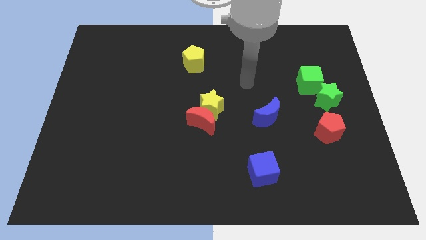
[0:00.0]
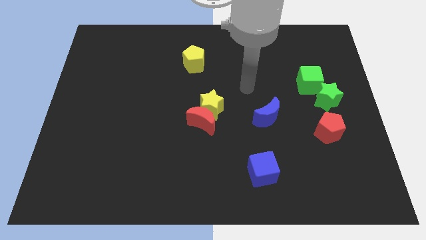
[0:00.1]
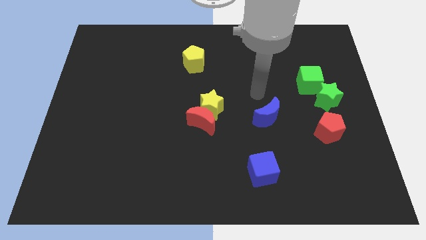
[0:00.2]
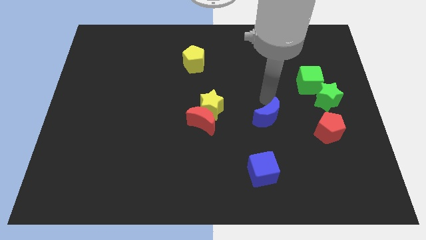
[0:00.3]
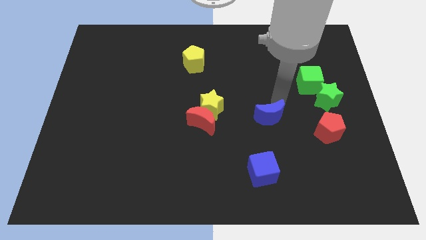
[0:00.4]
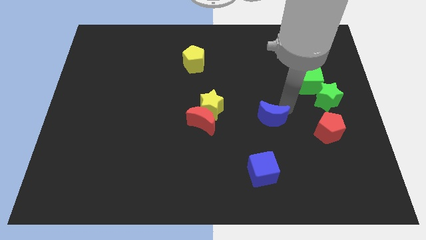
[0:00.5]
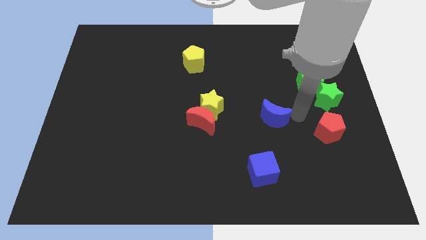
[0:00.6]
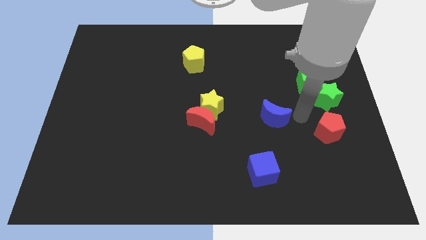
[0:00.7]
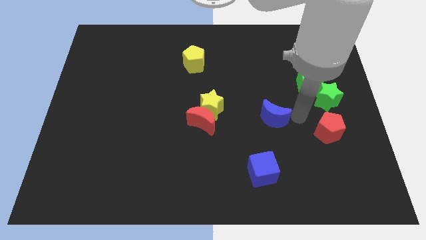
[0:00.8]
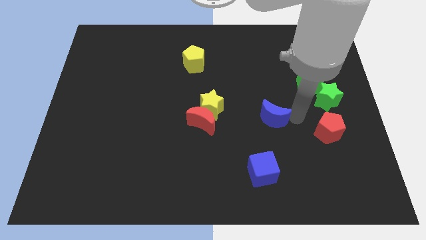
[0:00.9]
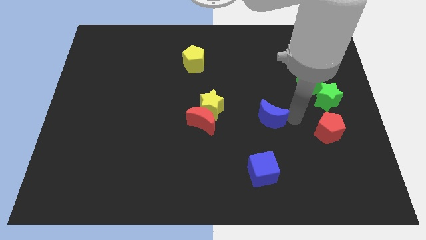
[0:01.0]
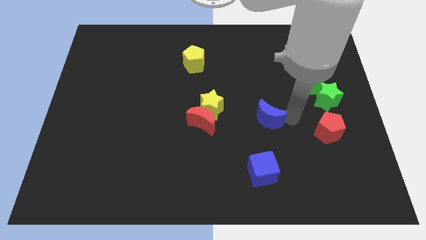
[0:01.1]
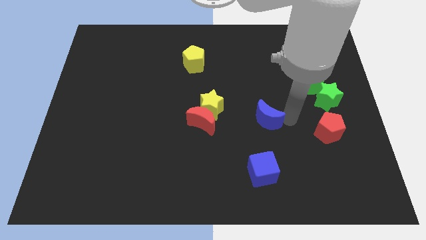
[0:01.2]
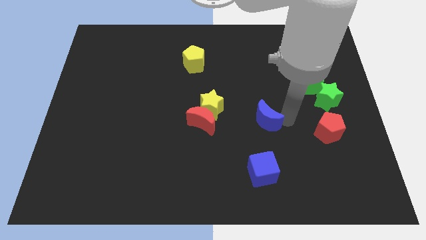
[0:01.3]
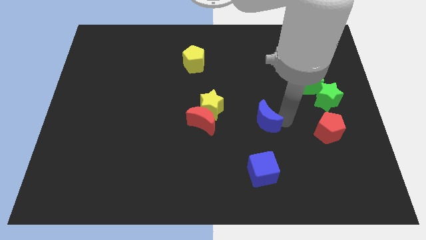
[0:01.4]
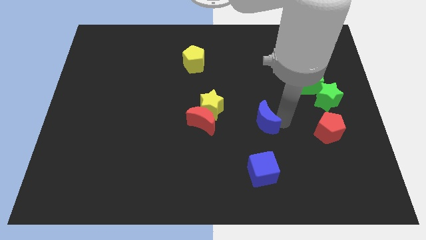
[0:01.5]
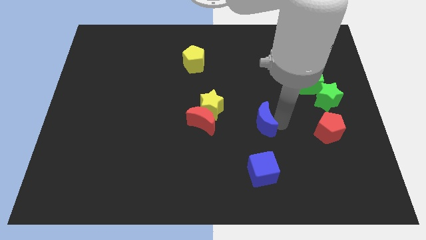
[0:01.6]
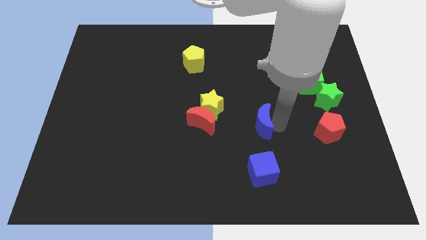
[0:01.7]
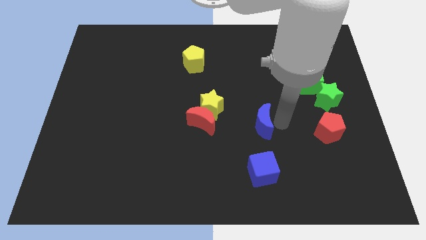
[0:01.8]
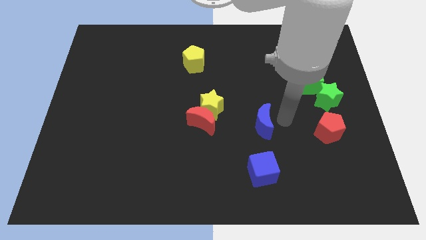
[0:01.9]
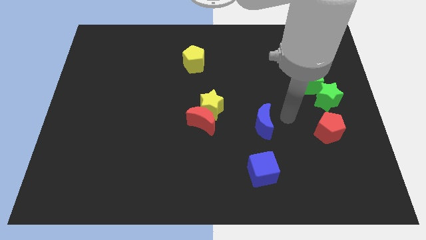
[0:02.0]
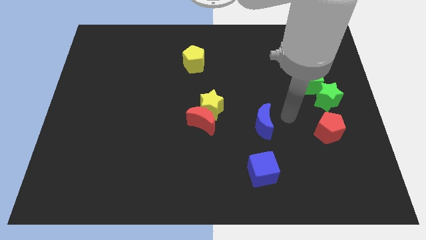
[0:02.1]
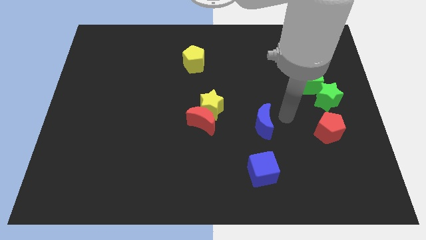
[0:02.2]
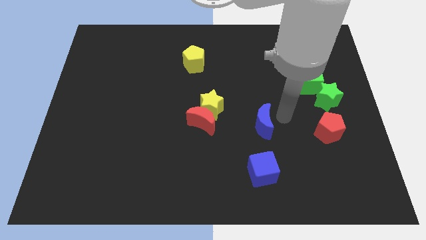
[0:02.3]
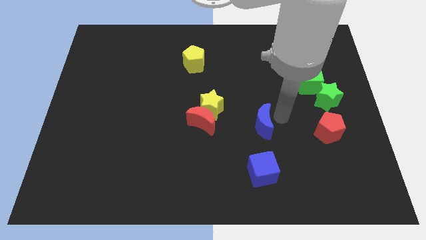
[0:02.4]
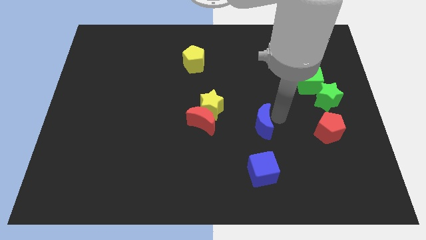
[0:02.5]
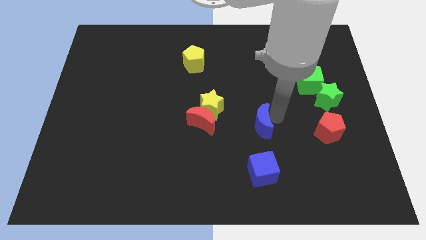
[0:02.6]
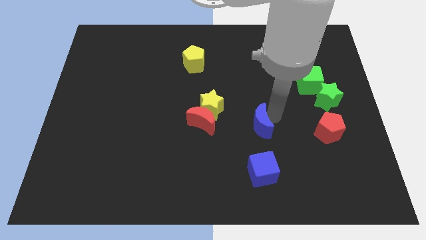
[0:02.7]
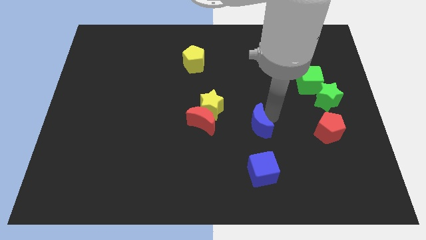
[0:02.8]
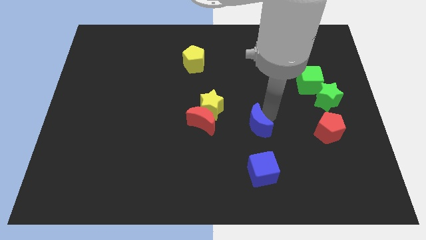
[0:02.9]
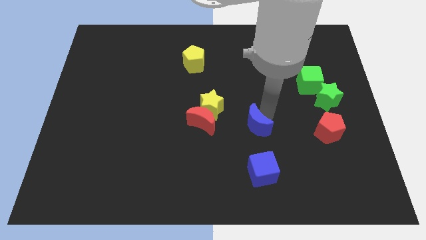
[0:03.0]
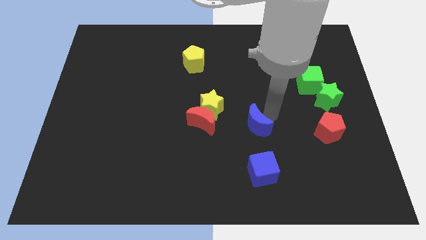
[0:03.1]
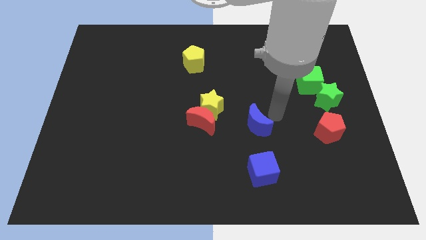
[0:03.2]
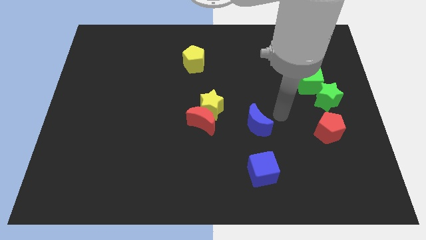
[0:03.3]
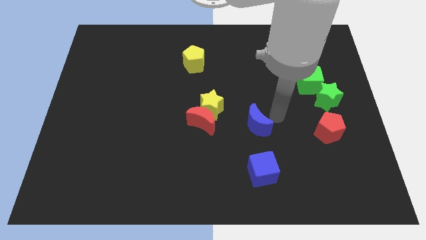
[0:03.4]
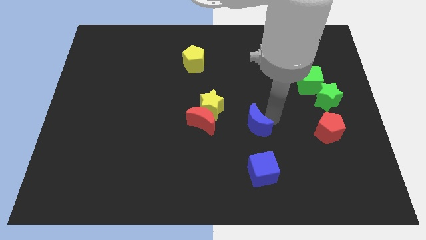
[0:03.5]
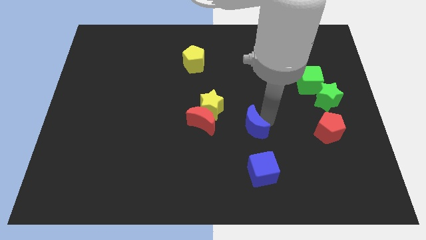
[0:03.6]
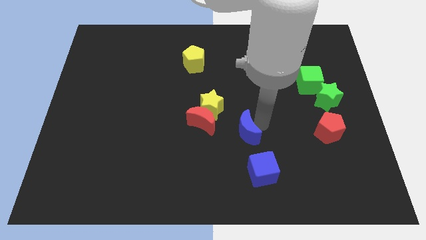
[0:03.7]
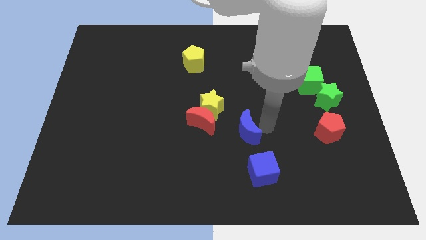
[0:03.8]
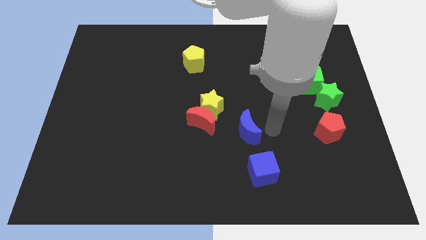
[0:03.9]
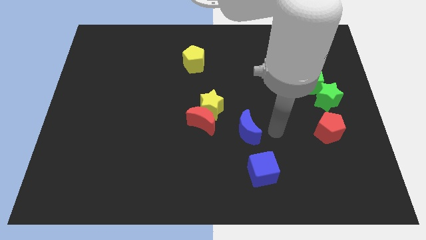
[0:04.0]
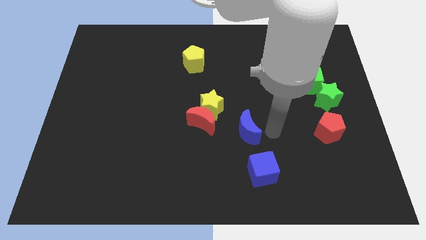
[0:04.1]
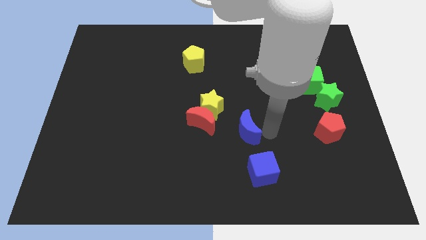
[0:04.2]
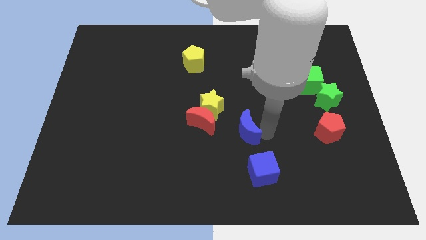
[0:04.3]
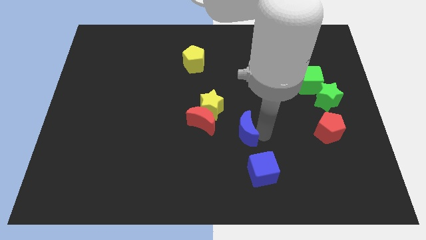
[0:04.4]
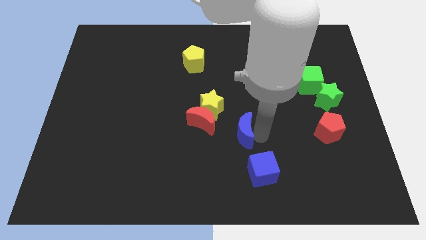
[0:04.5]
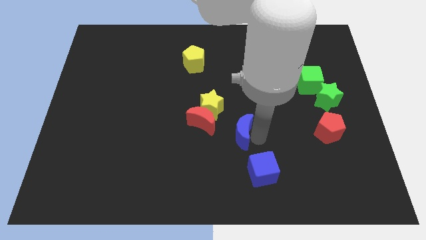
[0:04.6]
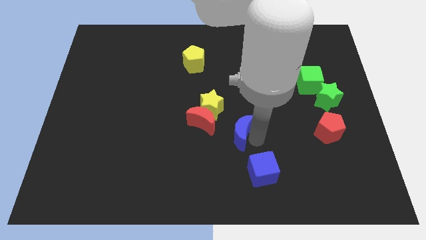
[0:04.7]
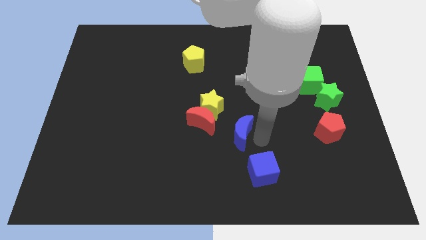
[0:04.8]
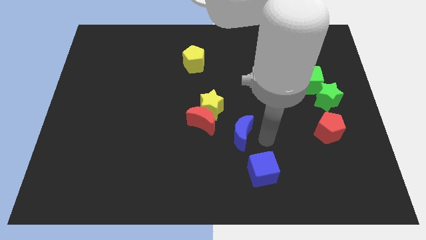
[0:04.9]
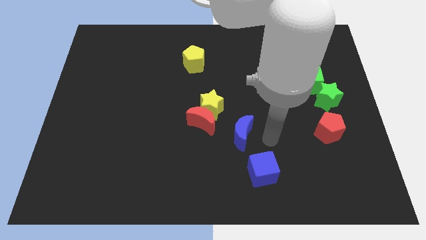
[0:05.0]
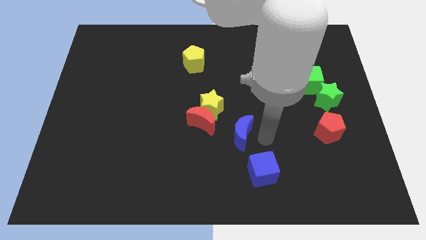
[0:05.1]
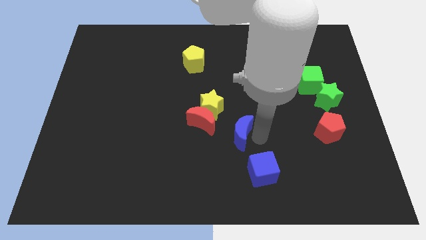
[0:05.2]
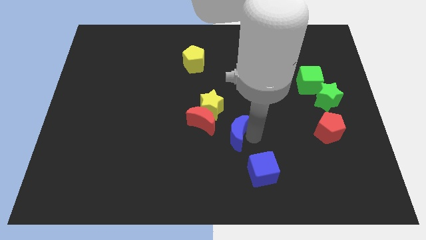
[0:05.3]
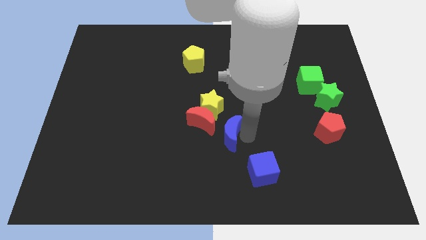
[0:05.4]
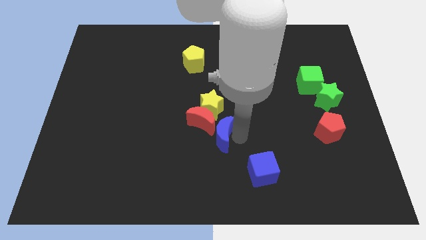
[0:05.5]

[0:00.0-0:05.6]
move the blue moon next to the red moon

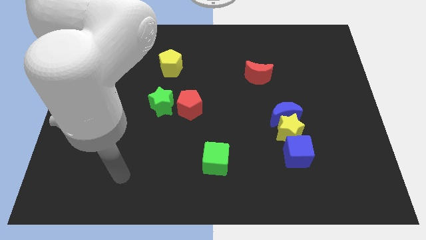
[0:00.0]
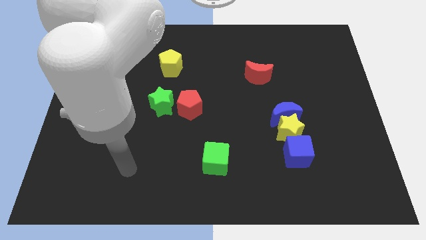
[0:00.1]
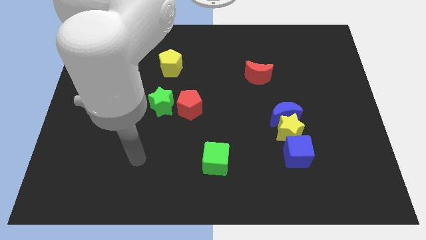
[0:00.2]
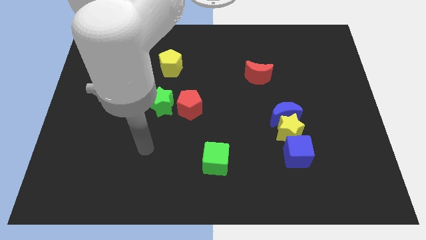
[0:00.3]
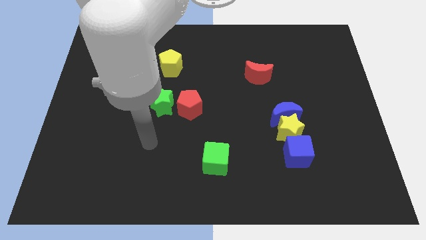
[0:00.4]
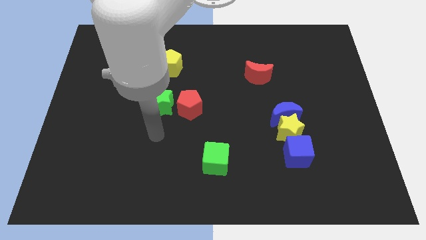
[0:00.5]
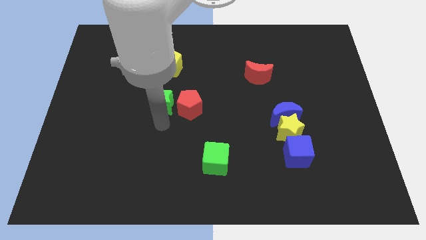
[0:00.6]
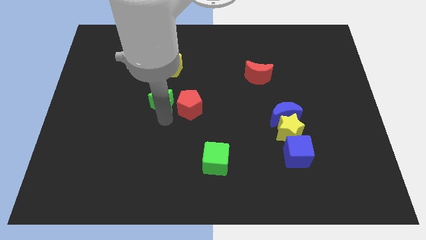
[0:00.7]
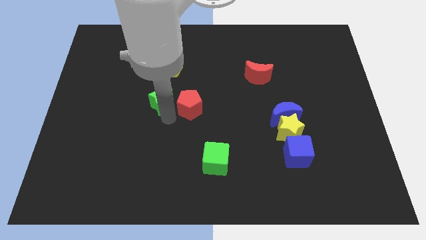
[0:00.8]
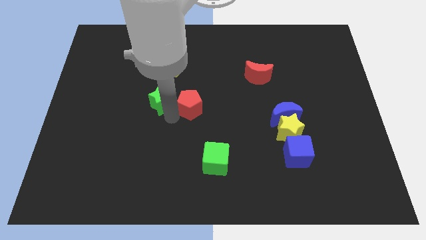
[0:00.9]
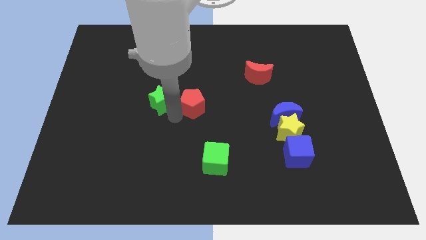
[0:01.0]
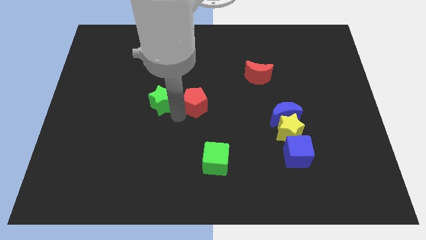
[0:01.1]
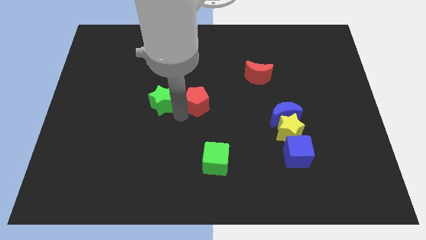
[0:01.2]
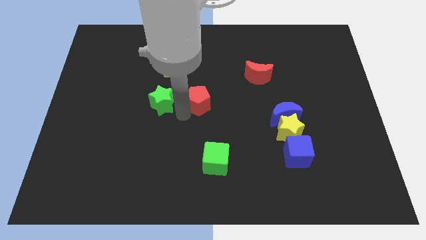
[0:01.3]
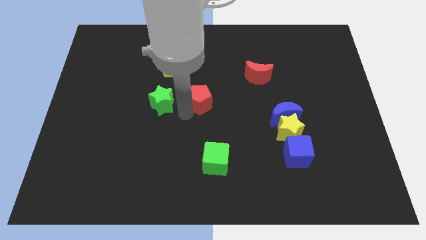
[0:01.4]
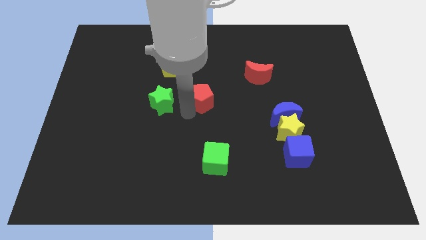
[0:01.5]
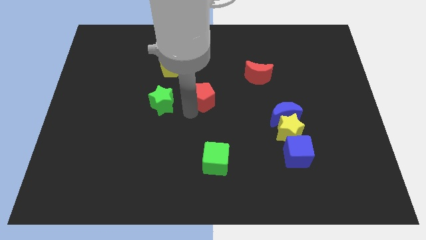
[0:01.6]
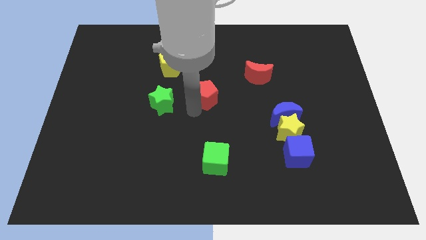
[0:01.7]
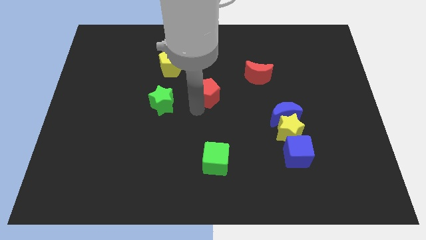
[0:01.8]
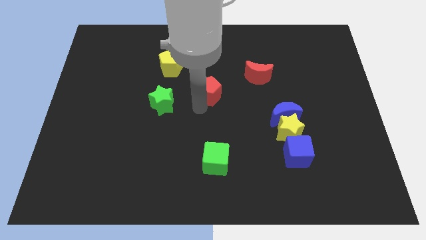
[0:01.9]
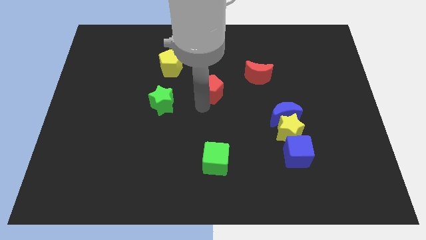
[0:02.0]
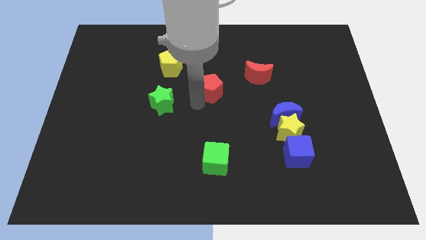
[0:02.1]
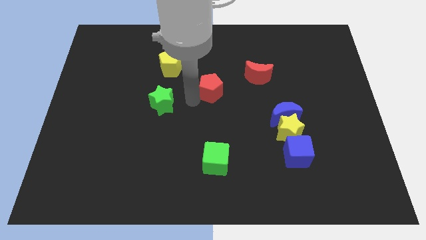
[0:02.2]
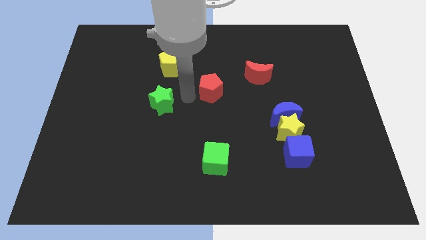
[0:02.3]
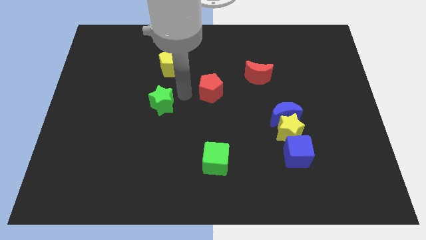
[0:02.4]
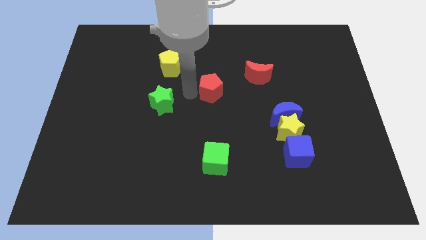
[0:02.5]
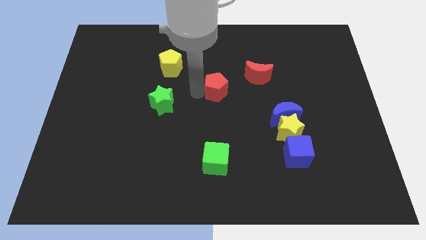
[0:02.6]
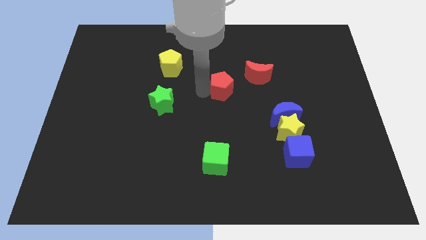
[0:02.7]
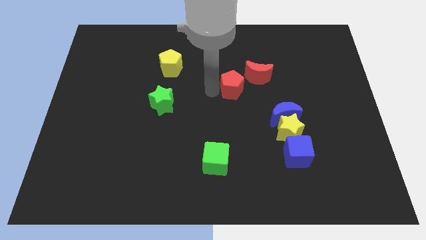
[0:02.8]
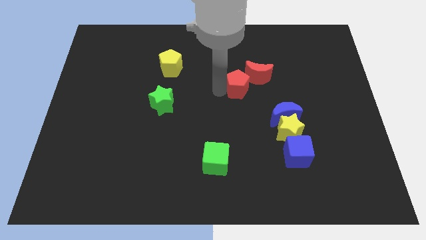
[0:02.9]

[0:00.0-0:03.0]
slide the red pentagon to the red moon
